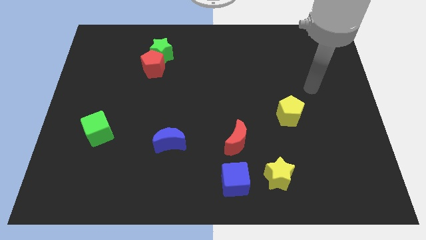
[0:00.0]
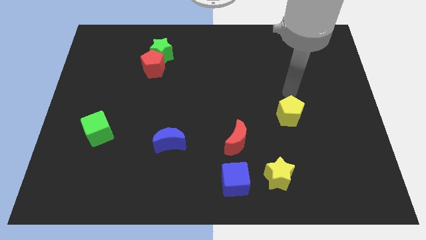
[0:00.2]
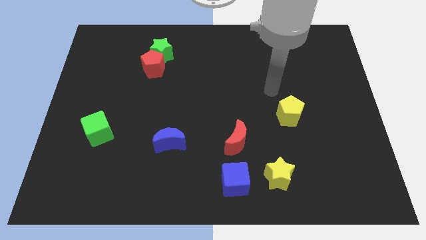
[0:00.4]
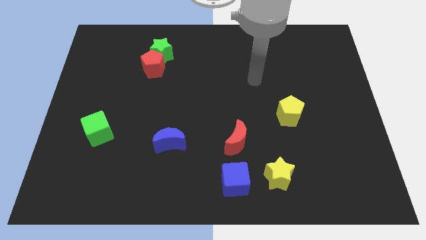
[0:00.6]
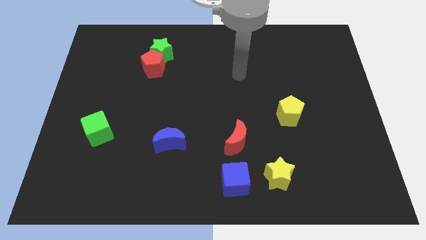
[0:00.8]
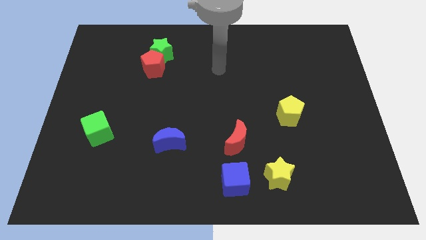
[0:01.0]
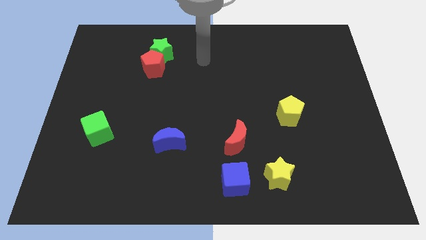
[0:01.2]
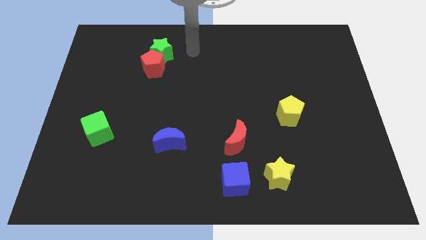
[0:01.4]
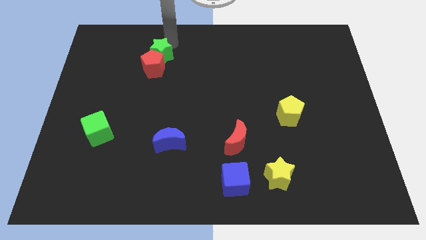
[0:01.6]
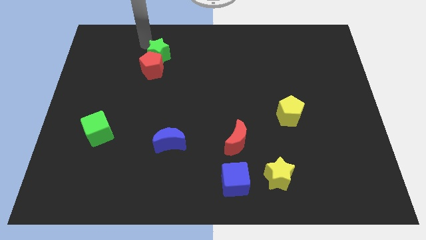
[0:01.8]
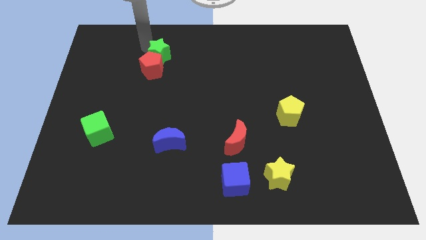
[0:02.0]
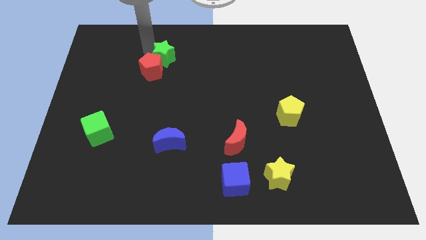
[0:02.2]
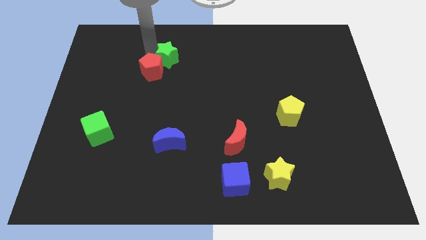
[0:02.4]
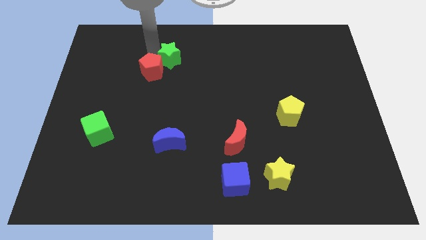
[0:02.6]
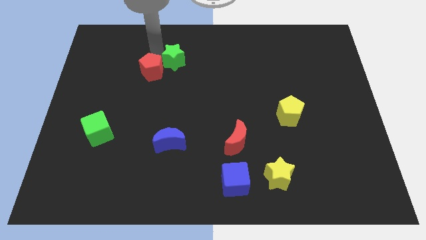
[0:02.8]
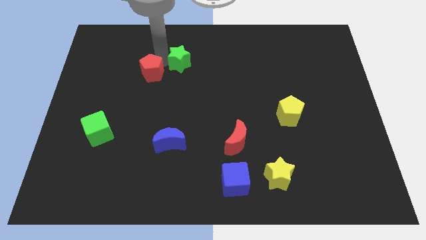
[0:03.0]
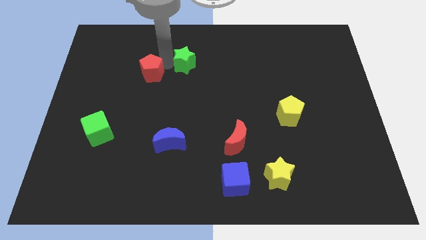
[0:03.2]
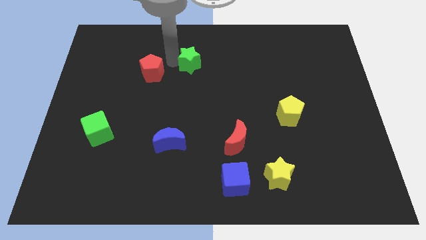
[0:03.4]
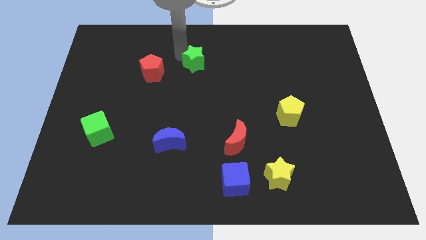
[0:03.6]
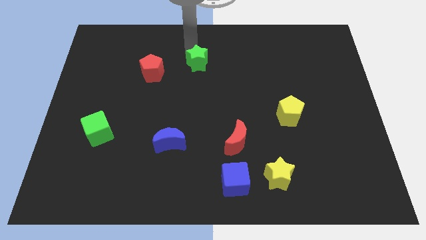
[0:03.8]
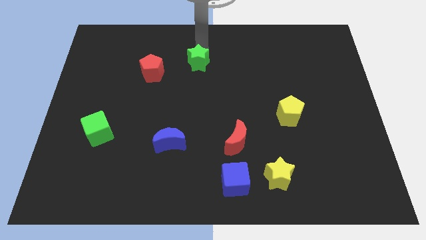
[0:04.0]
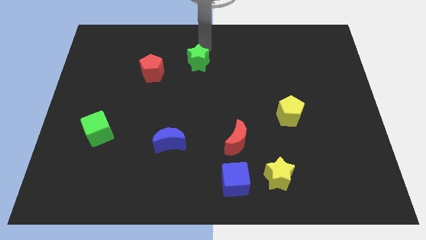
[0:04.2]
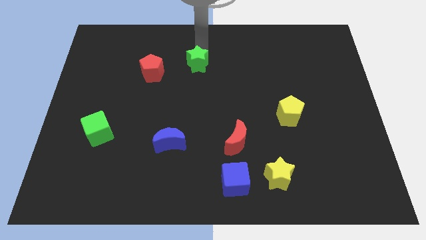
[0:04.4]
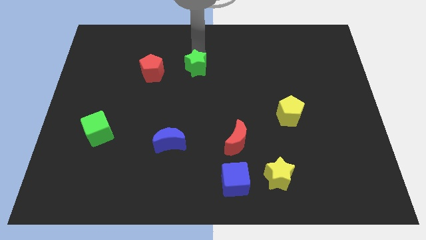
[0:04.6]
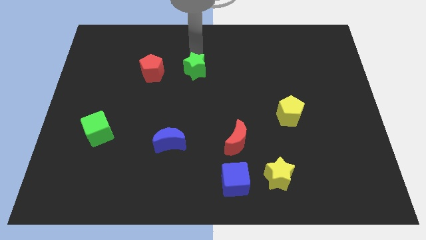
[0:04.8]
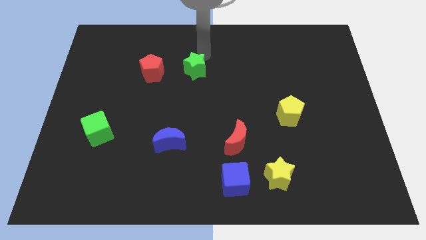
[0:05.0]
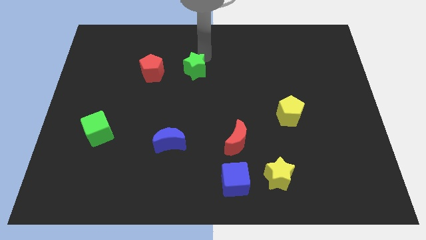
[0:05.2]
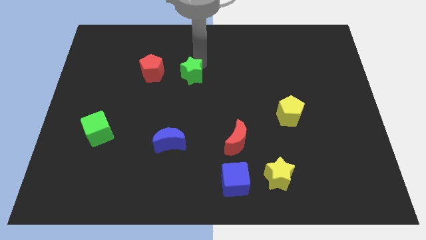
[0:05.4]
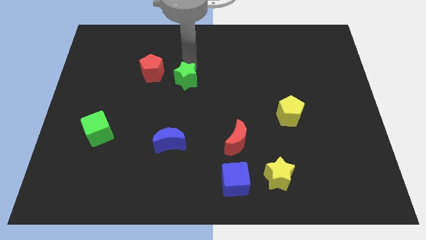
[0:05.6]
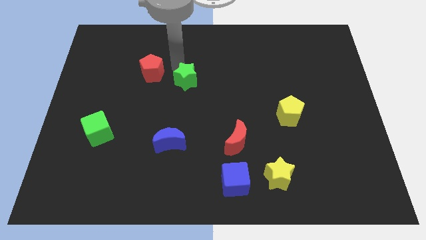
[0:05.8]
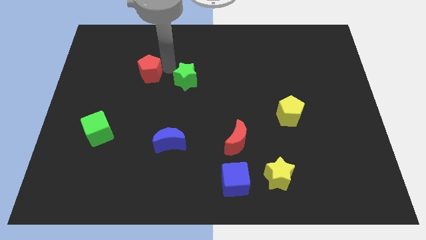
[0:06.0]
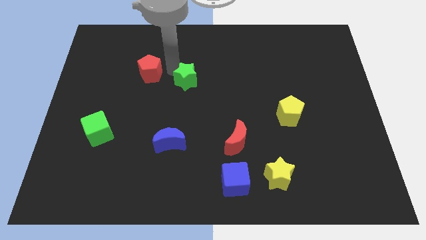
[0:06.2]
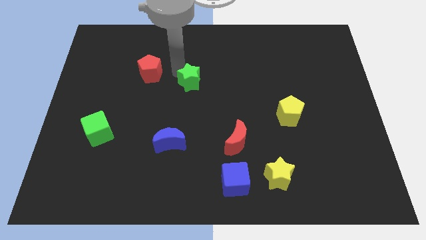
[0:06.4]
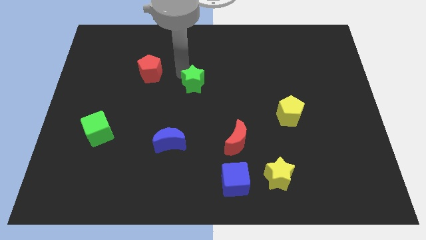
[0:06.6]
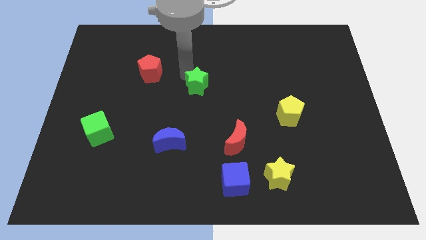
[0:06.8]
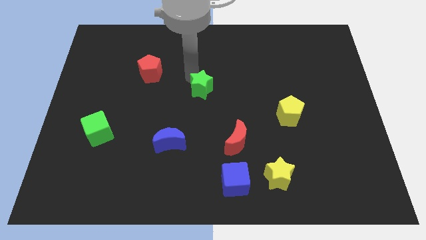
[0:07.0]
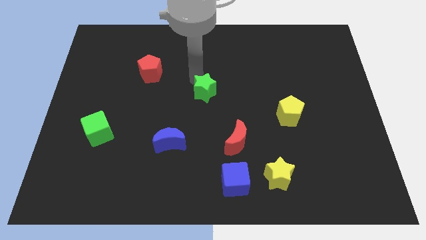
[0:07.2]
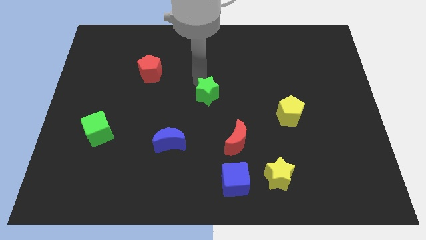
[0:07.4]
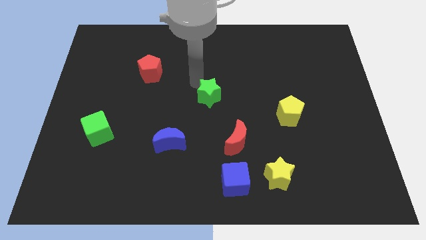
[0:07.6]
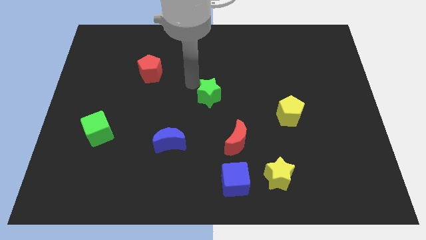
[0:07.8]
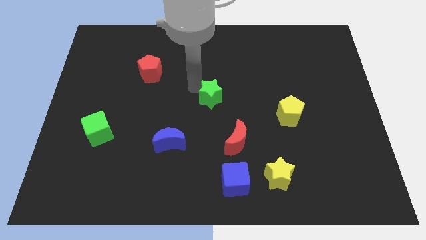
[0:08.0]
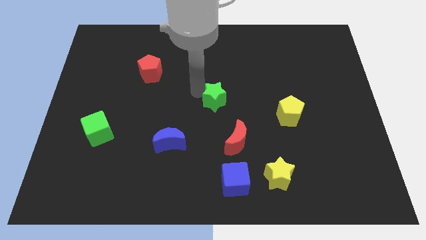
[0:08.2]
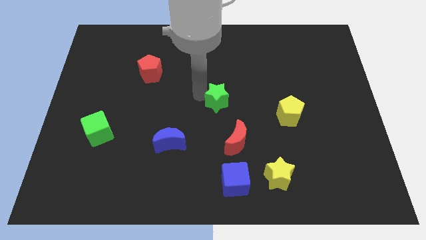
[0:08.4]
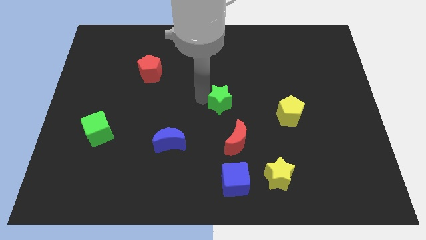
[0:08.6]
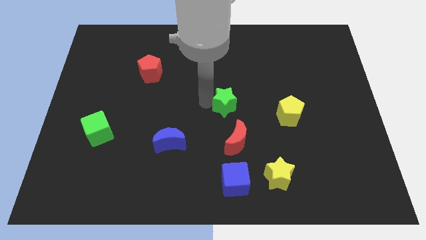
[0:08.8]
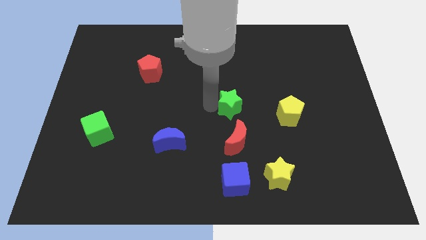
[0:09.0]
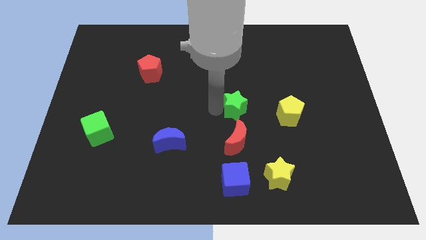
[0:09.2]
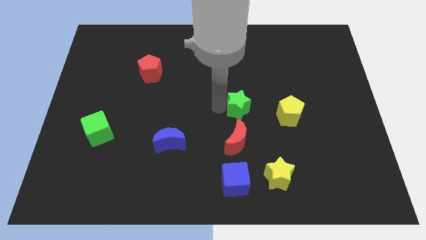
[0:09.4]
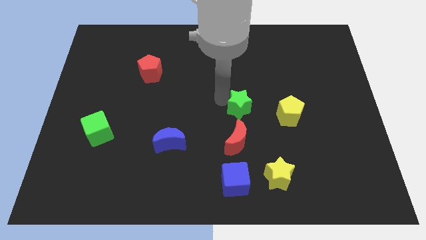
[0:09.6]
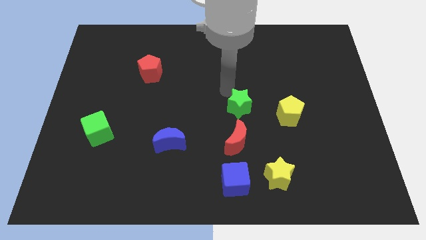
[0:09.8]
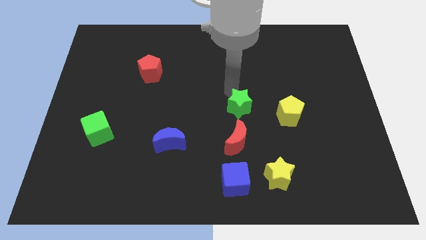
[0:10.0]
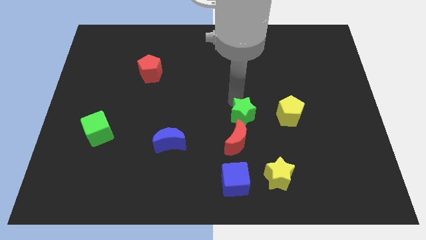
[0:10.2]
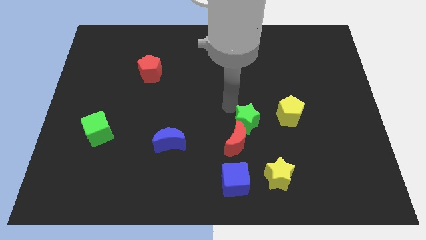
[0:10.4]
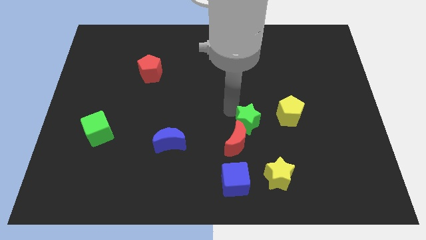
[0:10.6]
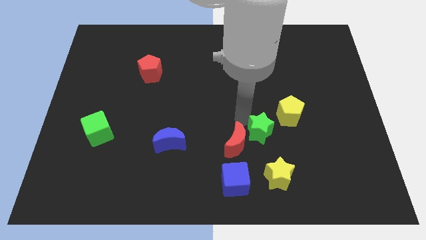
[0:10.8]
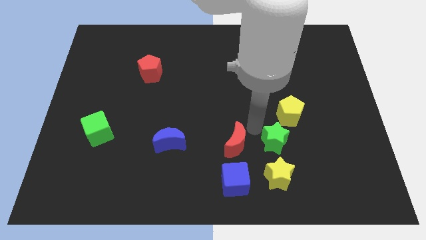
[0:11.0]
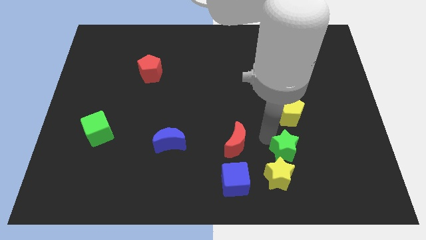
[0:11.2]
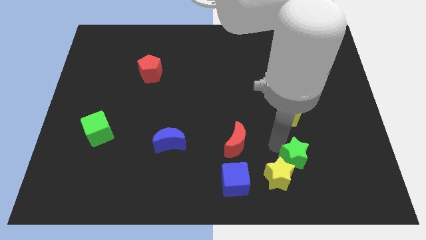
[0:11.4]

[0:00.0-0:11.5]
push the green star right of the yellow star

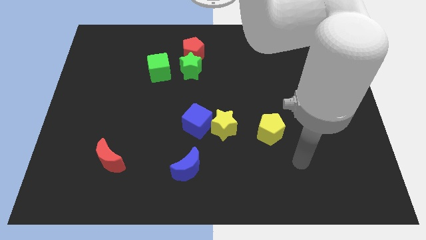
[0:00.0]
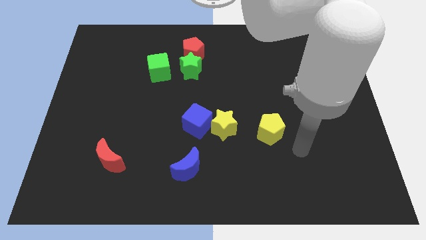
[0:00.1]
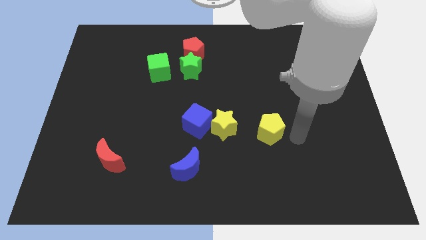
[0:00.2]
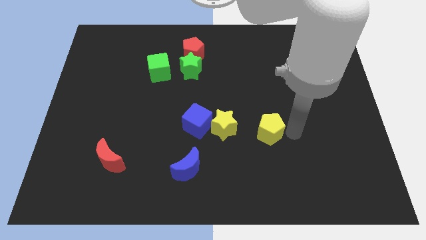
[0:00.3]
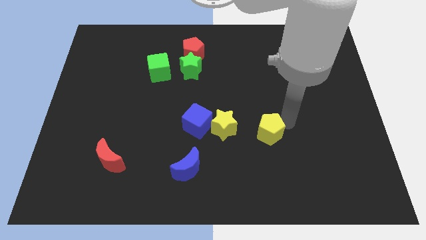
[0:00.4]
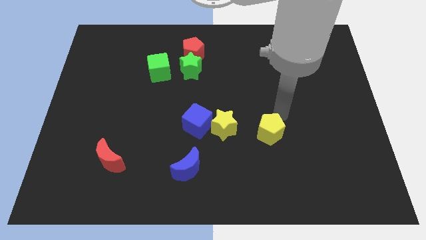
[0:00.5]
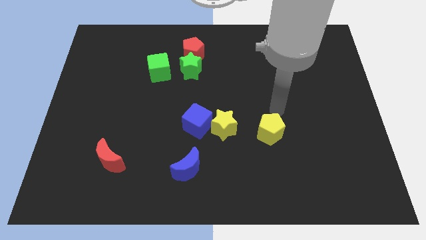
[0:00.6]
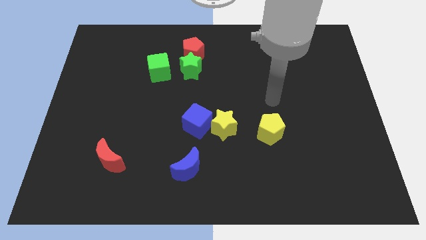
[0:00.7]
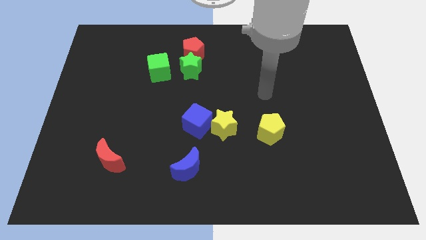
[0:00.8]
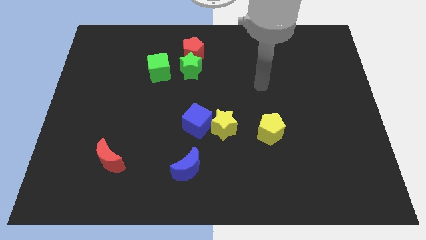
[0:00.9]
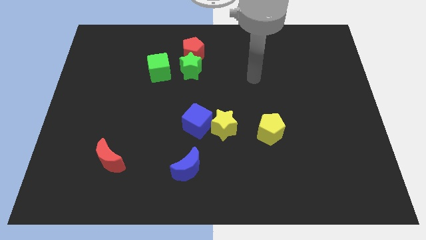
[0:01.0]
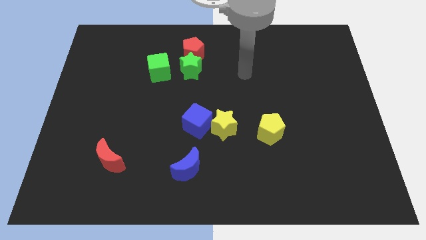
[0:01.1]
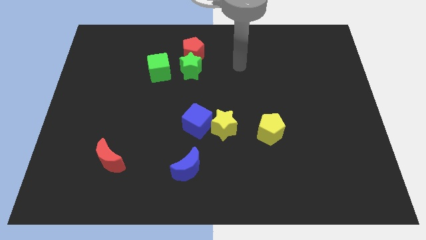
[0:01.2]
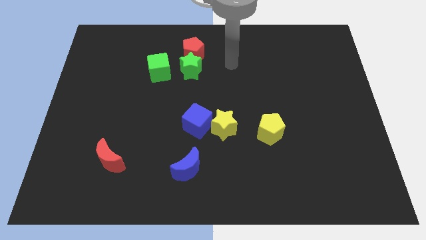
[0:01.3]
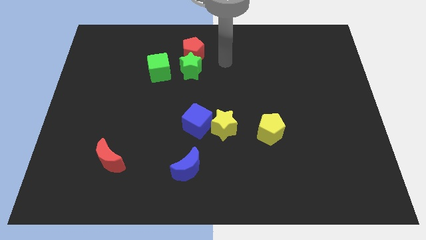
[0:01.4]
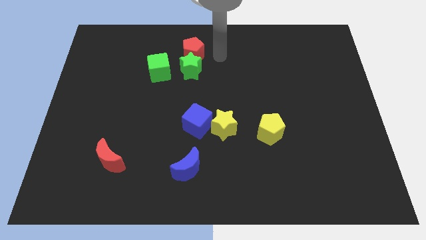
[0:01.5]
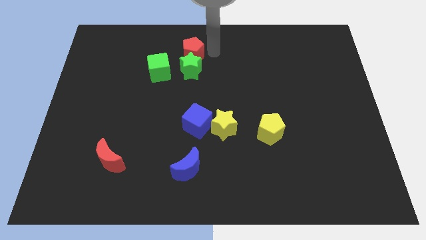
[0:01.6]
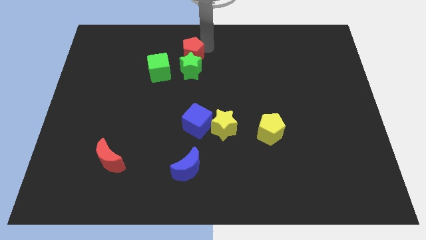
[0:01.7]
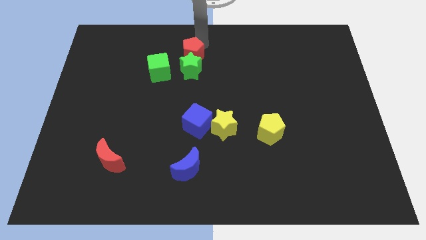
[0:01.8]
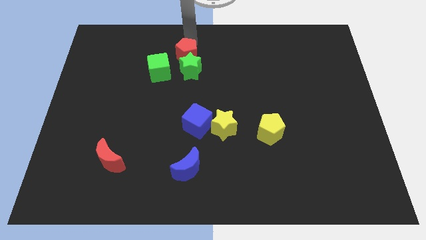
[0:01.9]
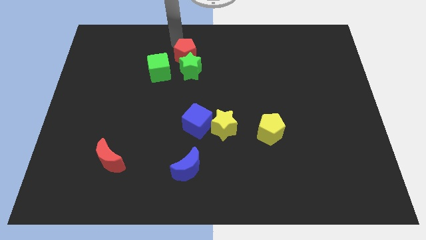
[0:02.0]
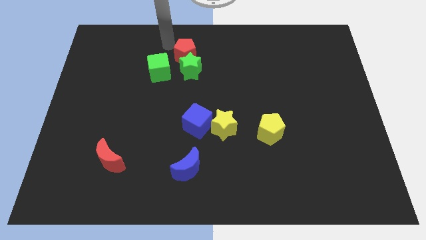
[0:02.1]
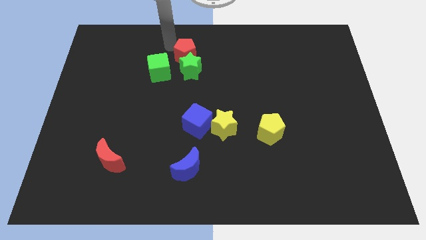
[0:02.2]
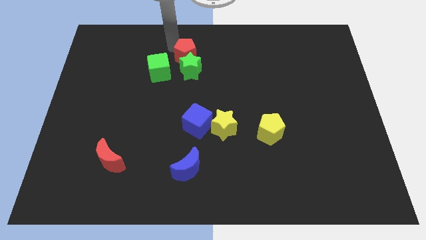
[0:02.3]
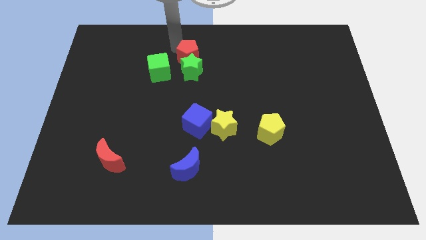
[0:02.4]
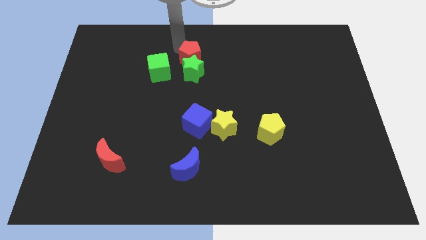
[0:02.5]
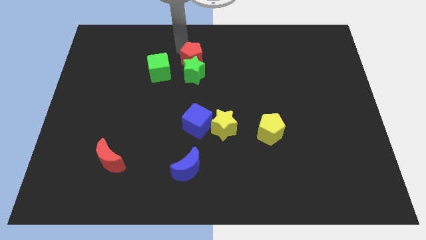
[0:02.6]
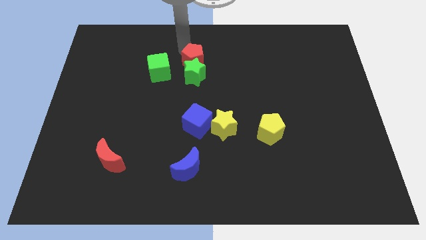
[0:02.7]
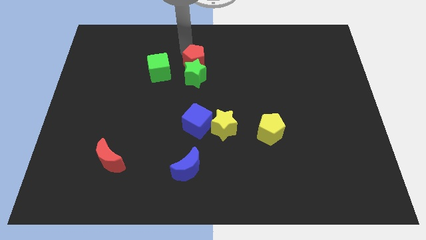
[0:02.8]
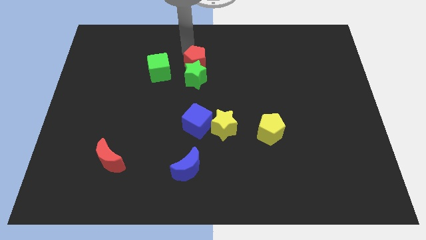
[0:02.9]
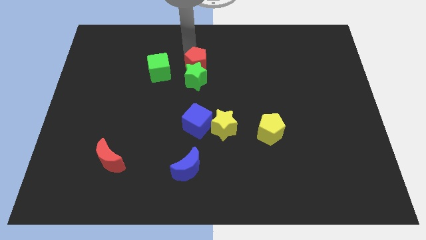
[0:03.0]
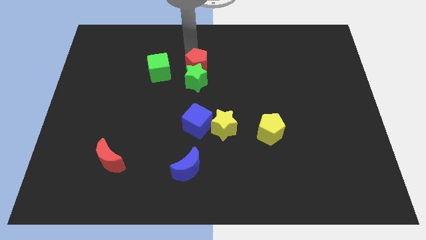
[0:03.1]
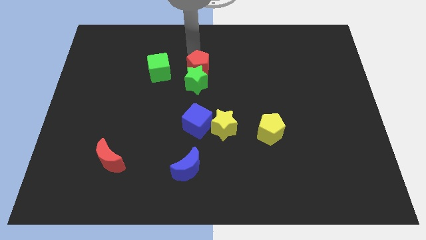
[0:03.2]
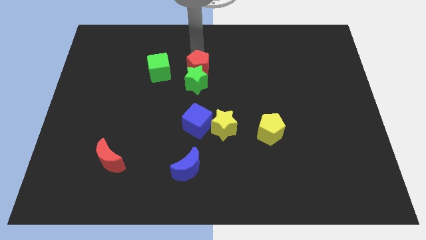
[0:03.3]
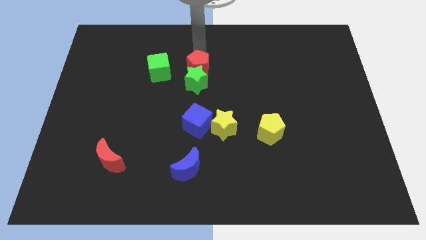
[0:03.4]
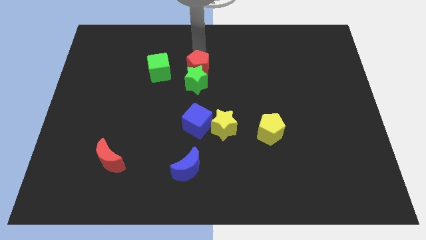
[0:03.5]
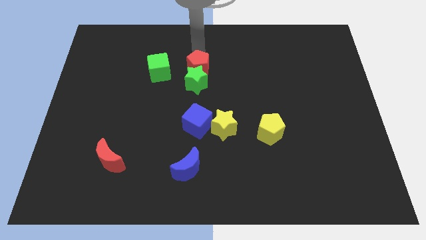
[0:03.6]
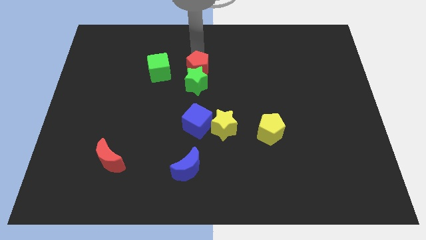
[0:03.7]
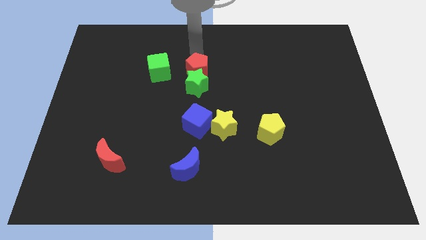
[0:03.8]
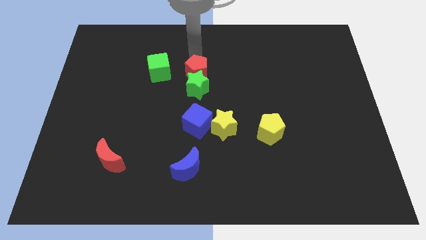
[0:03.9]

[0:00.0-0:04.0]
slide the red pentagon to the top side of the blue cube
